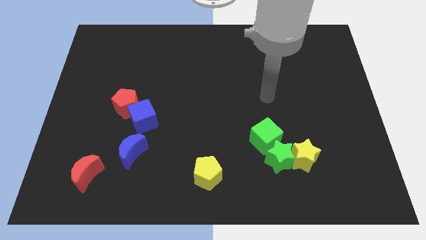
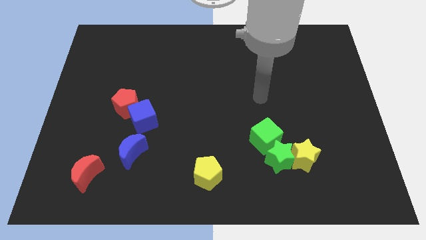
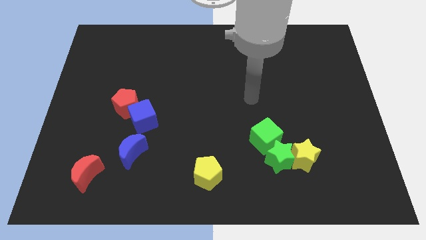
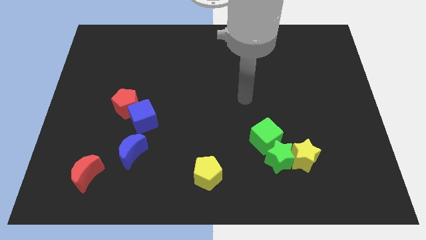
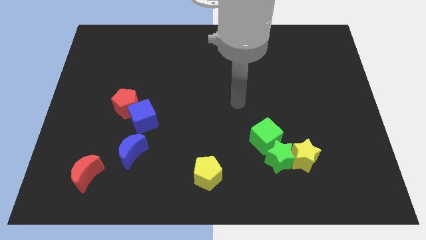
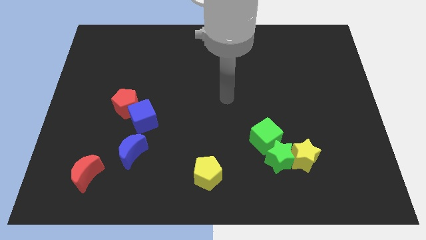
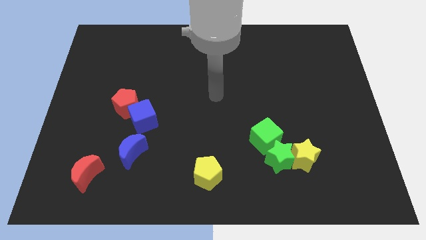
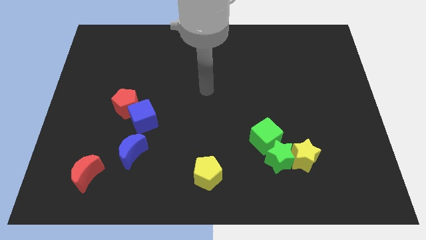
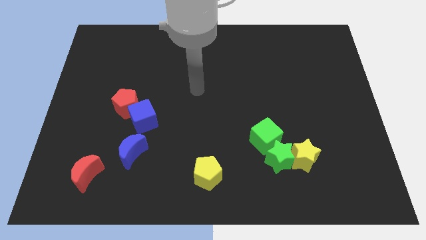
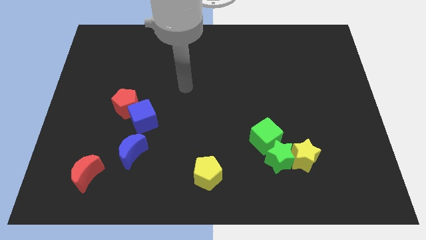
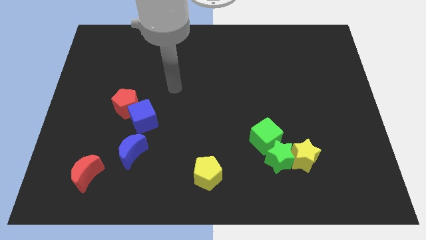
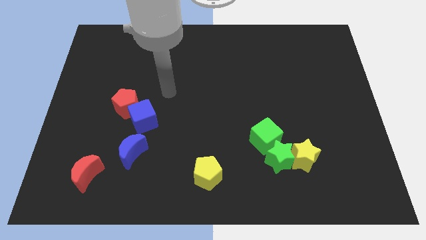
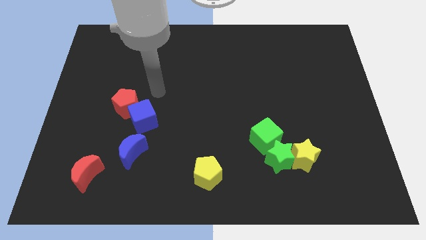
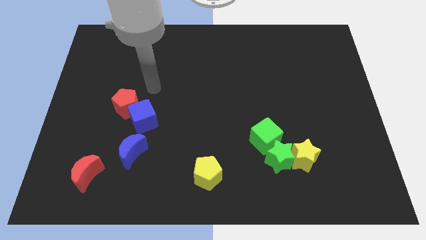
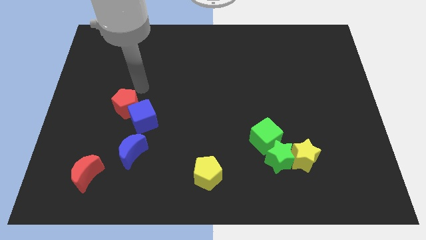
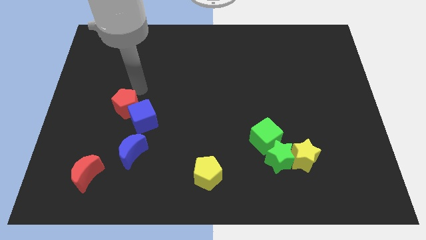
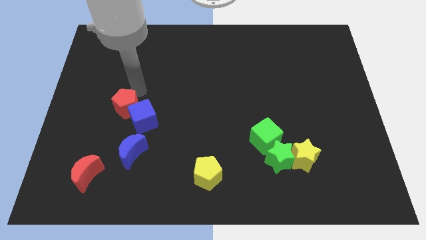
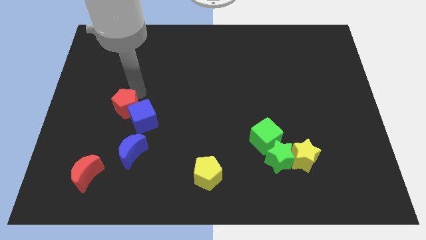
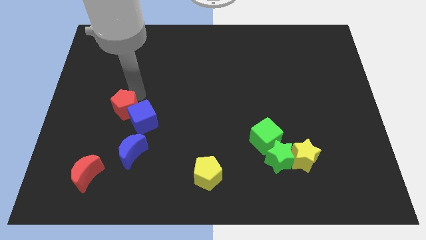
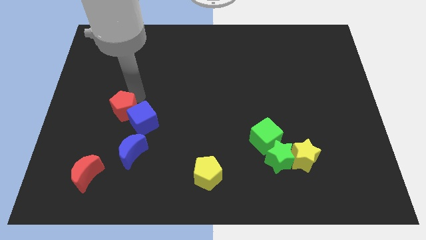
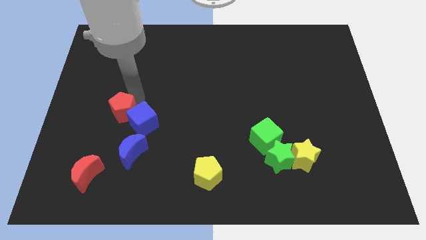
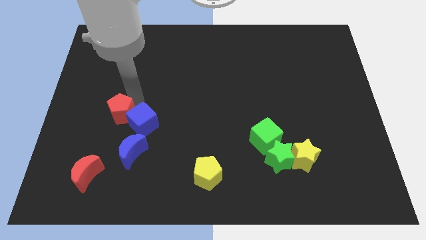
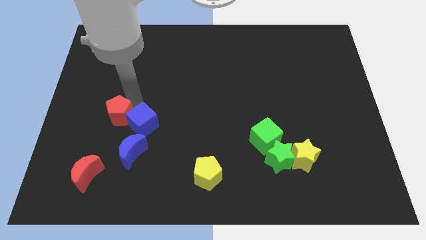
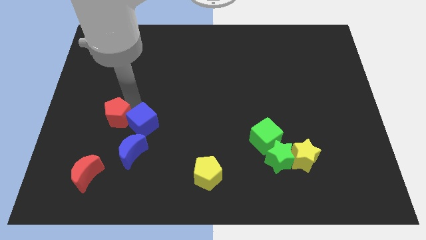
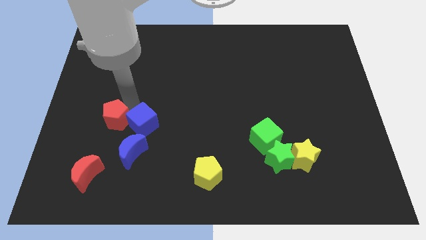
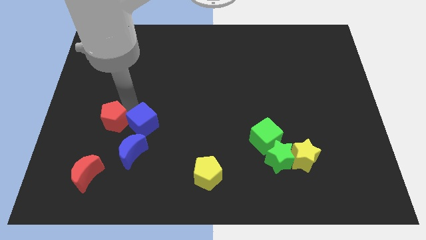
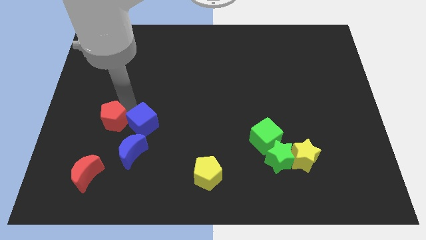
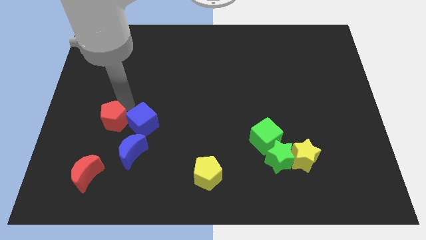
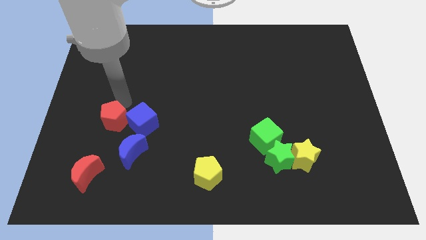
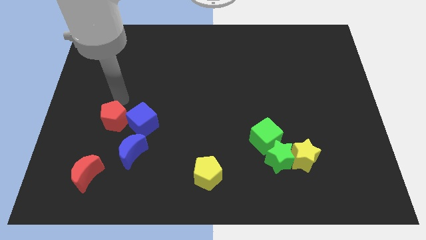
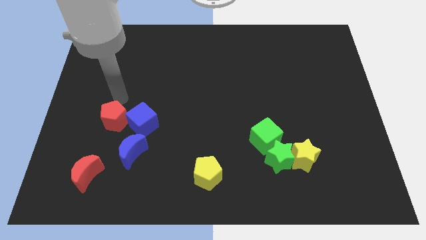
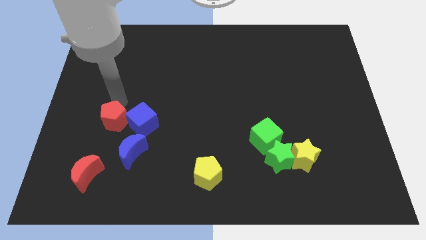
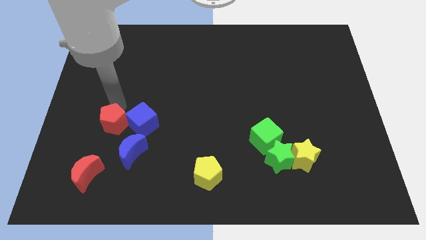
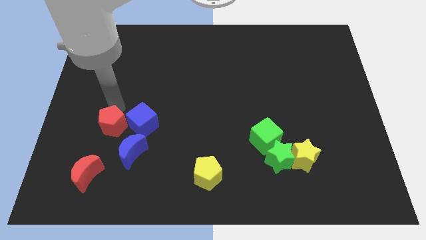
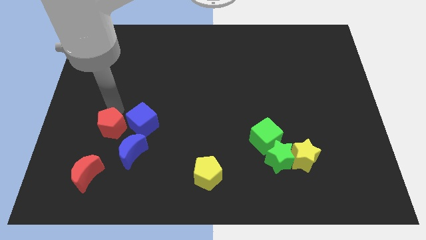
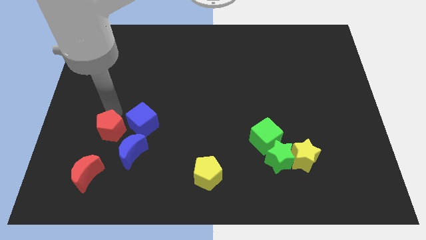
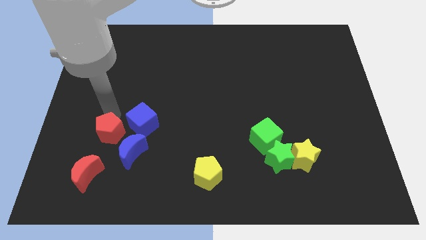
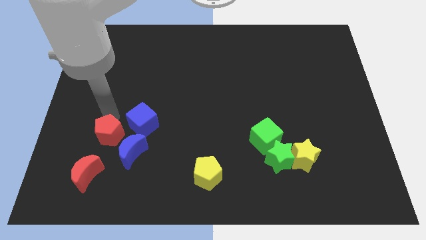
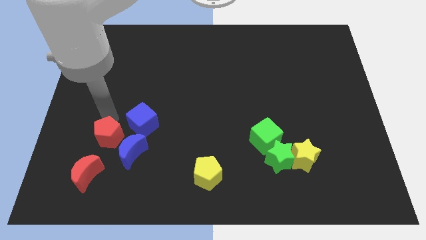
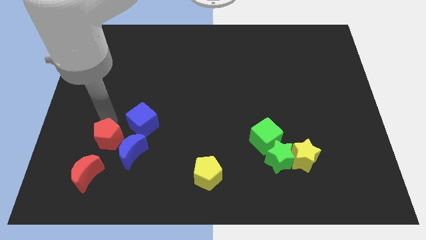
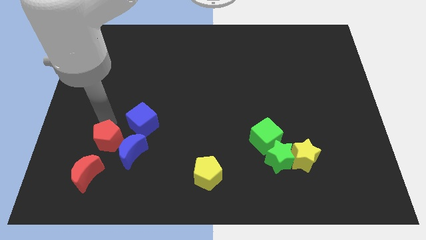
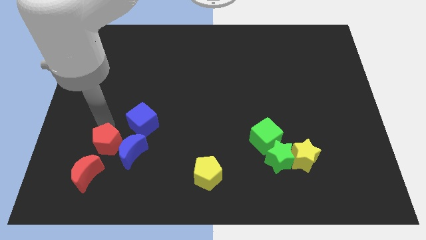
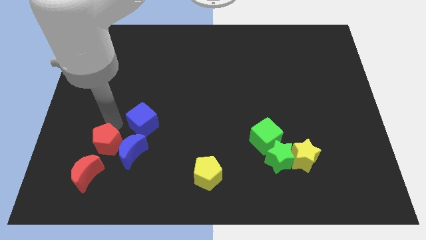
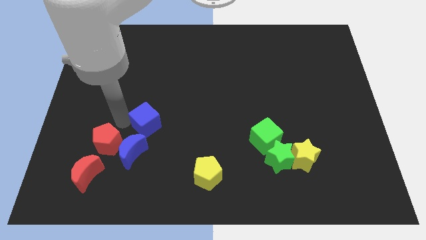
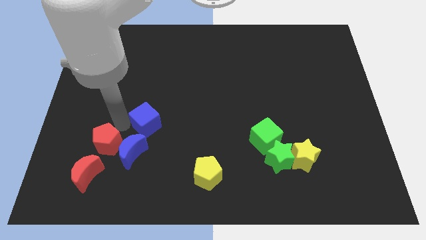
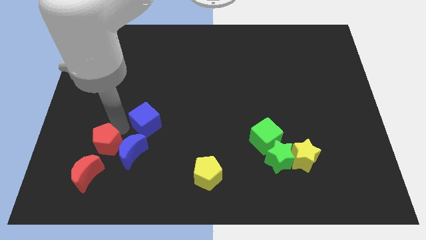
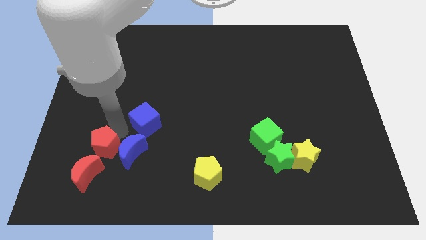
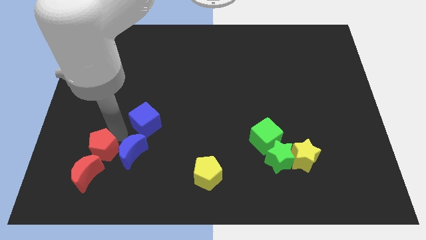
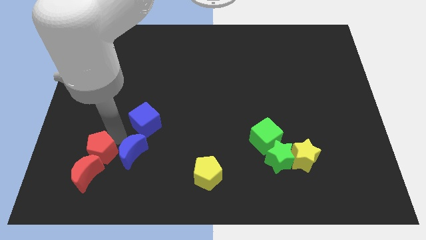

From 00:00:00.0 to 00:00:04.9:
push the red pentagon next to the red moon
